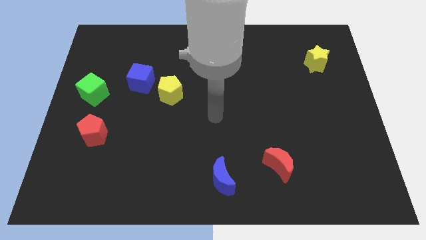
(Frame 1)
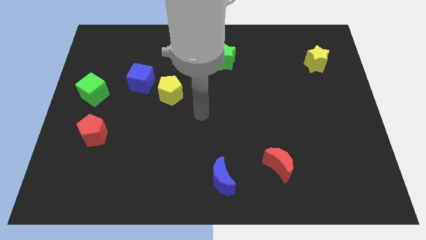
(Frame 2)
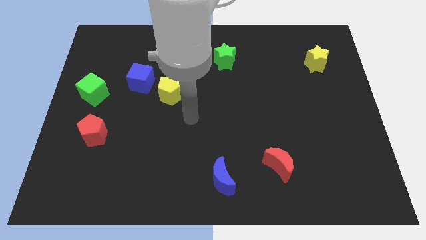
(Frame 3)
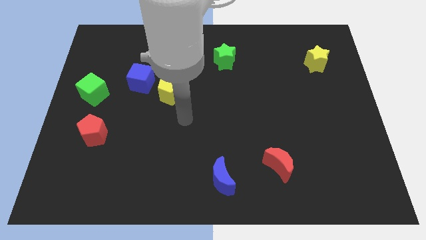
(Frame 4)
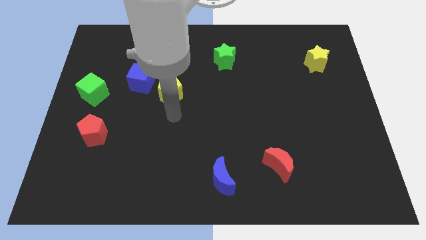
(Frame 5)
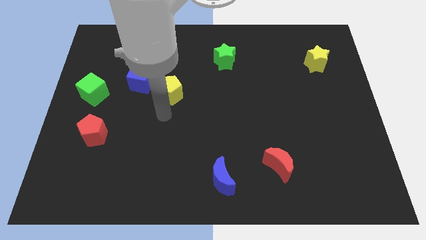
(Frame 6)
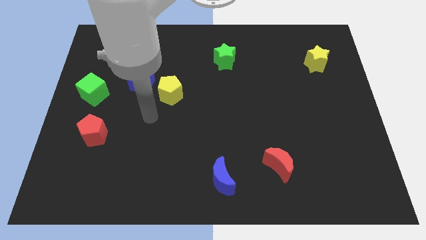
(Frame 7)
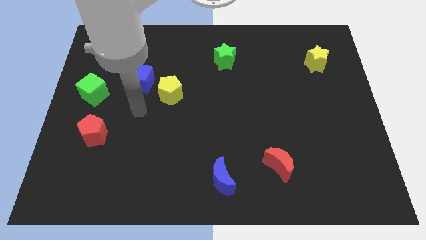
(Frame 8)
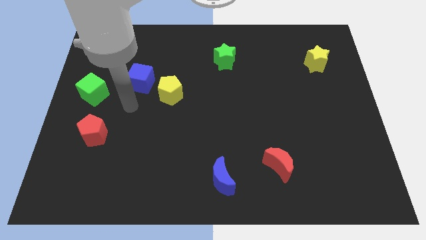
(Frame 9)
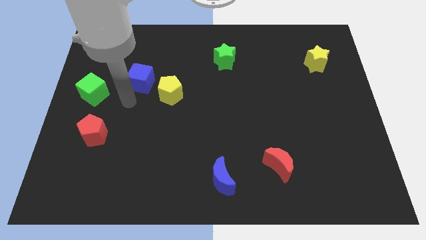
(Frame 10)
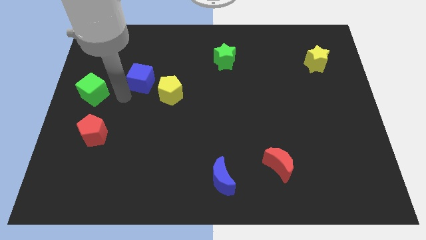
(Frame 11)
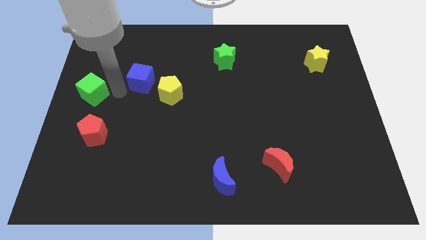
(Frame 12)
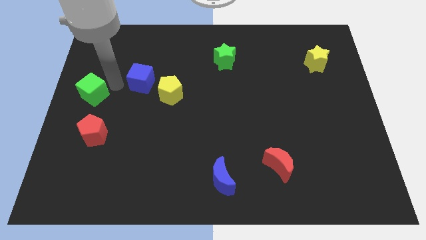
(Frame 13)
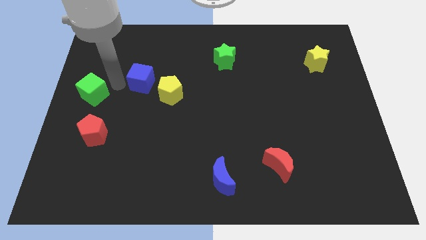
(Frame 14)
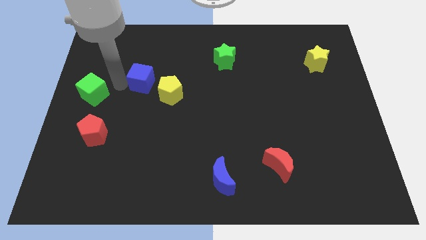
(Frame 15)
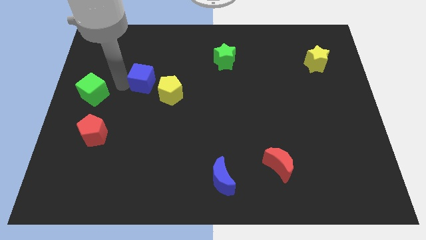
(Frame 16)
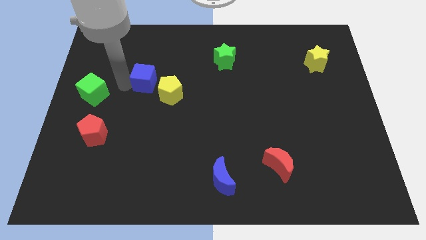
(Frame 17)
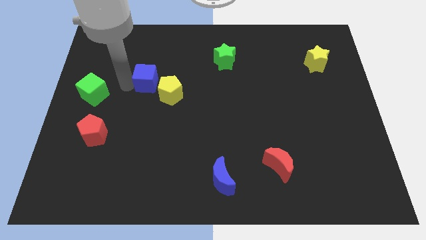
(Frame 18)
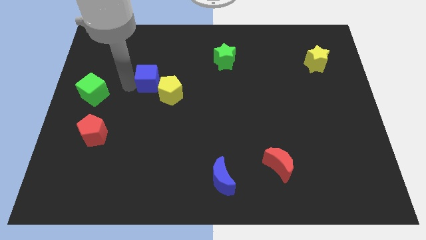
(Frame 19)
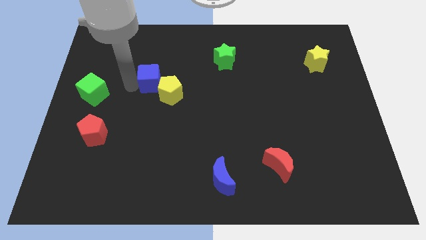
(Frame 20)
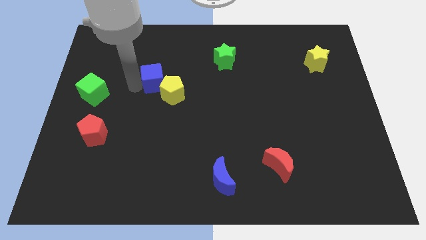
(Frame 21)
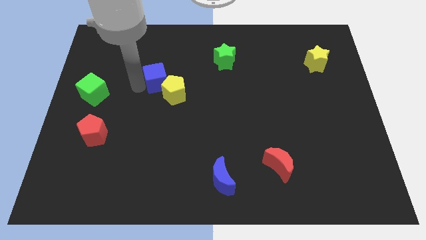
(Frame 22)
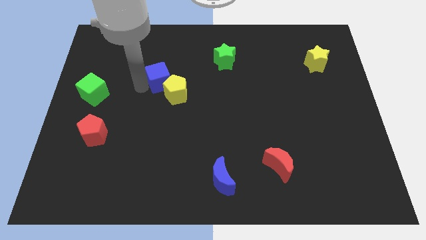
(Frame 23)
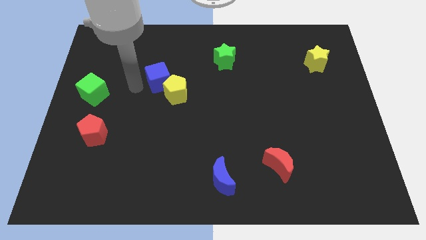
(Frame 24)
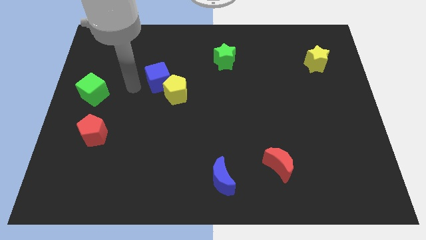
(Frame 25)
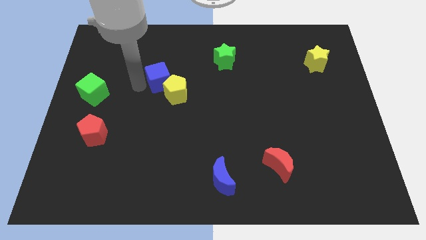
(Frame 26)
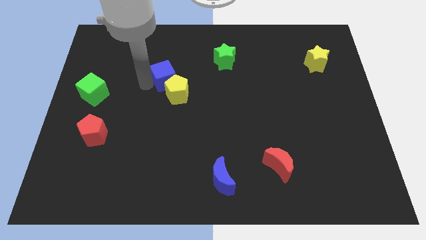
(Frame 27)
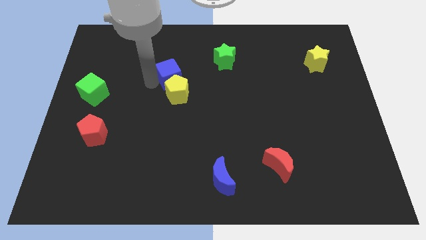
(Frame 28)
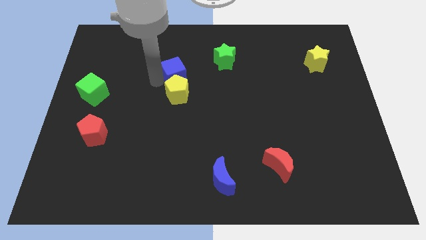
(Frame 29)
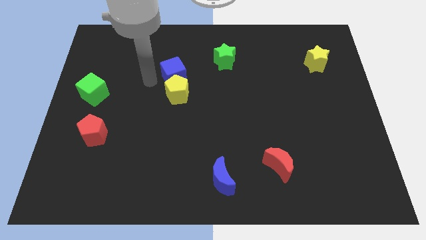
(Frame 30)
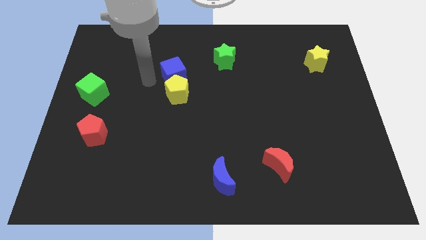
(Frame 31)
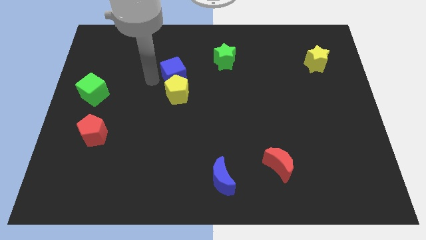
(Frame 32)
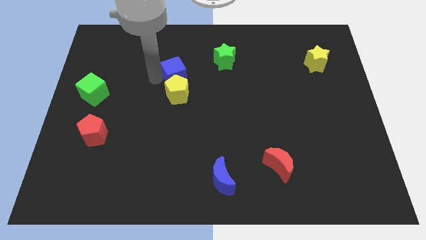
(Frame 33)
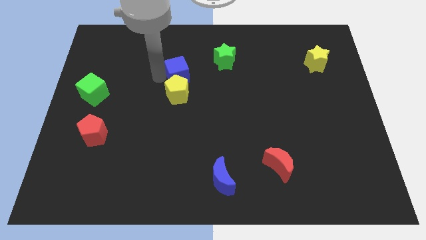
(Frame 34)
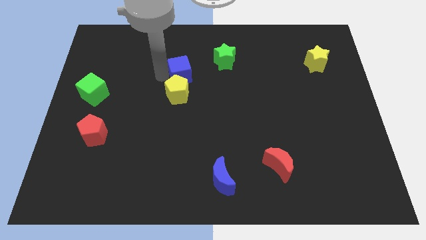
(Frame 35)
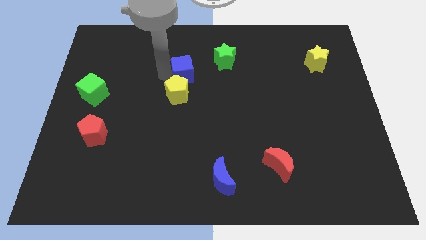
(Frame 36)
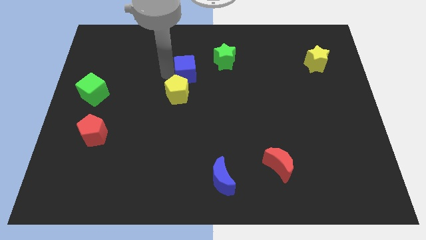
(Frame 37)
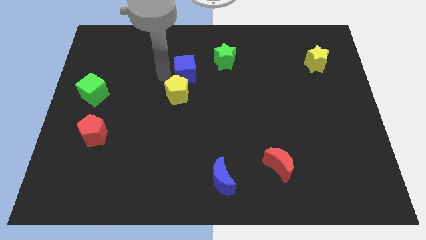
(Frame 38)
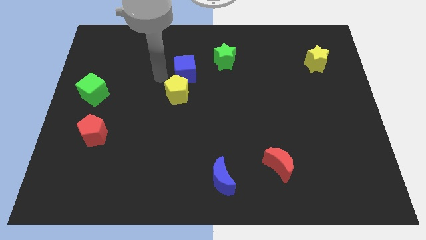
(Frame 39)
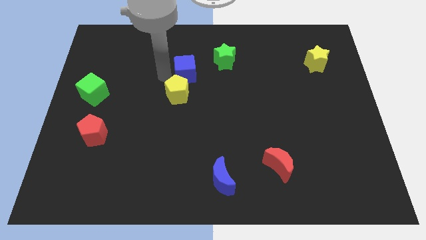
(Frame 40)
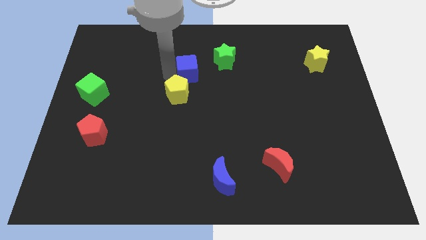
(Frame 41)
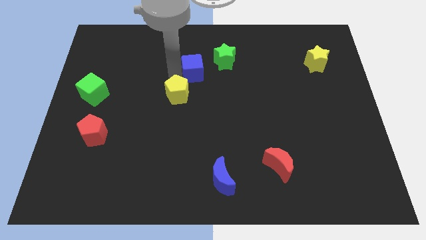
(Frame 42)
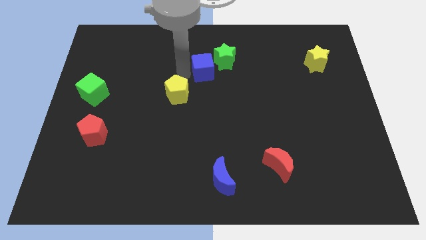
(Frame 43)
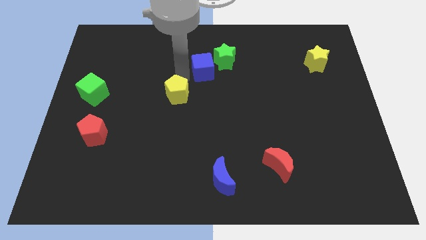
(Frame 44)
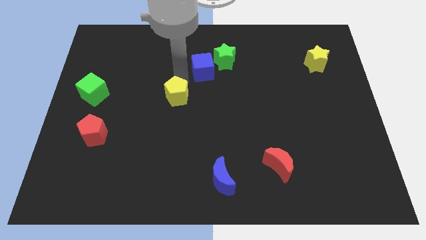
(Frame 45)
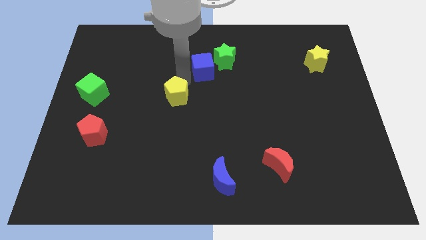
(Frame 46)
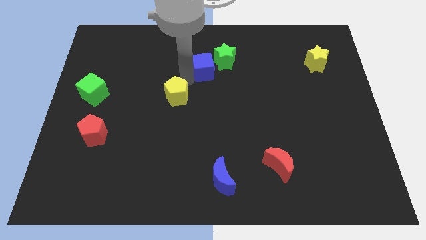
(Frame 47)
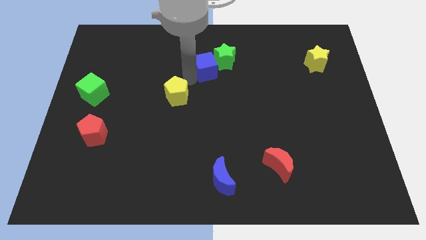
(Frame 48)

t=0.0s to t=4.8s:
push the blue cube next to the green star

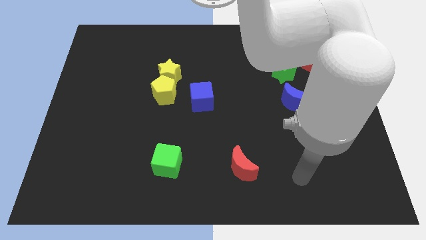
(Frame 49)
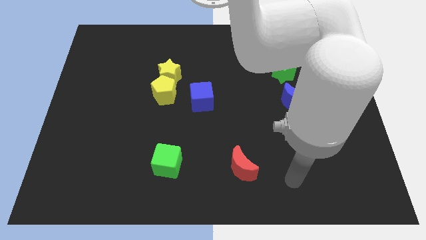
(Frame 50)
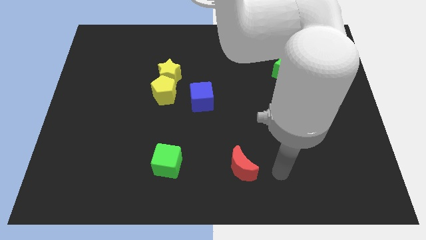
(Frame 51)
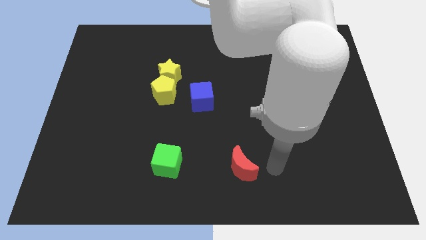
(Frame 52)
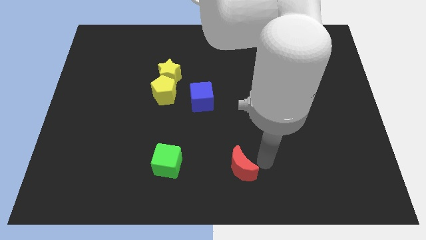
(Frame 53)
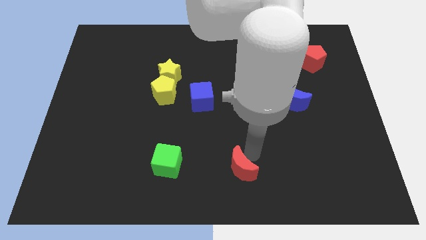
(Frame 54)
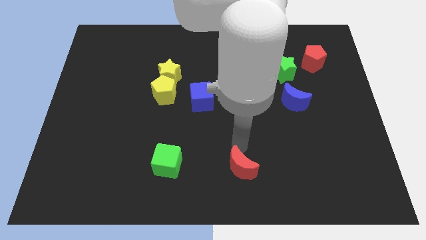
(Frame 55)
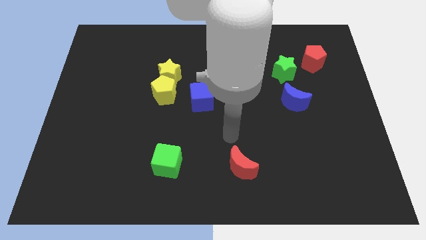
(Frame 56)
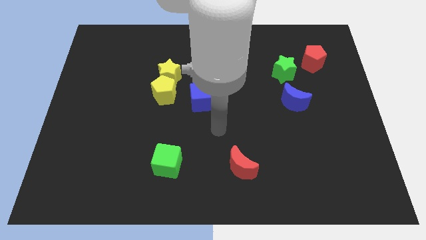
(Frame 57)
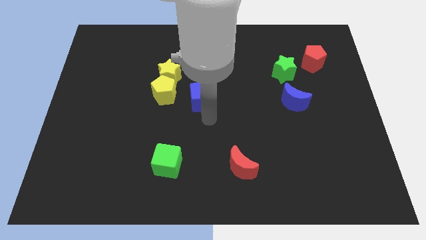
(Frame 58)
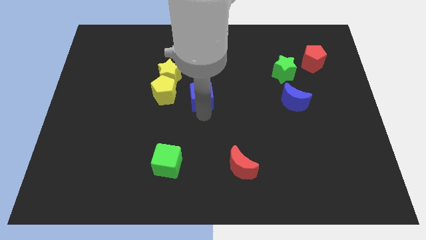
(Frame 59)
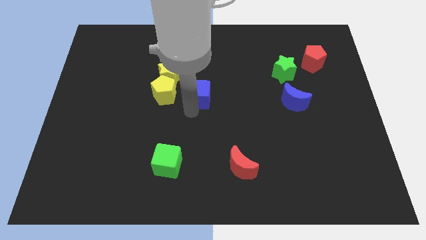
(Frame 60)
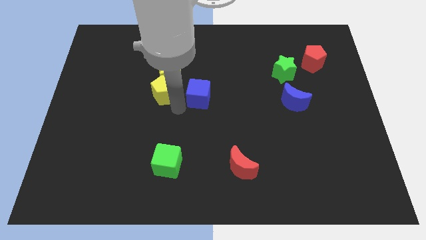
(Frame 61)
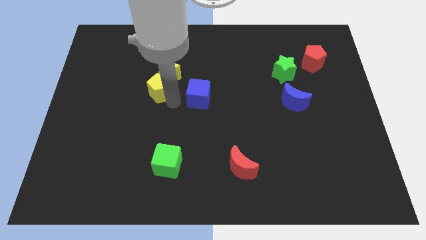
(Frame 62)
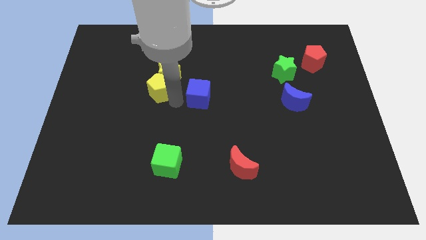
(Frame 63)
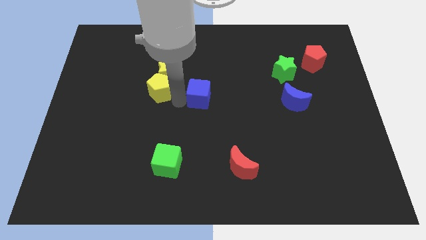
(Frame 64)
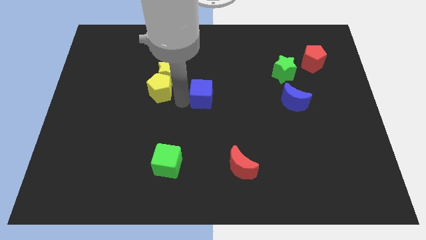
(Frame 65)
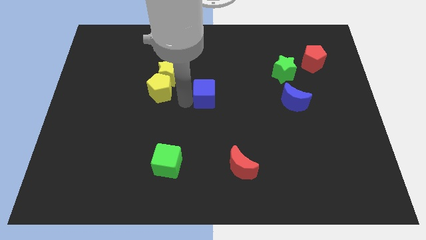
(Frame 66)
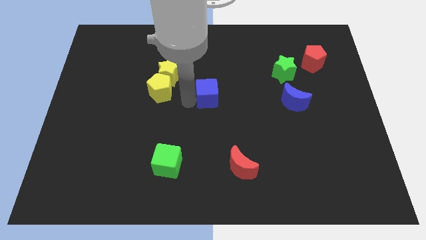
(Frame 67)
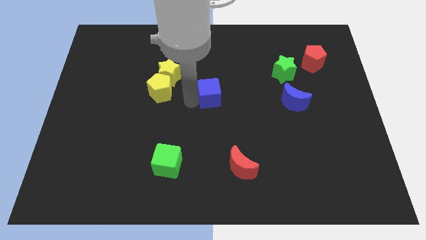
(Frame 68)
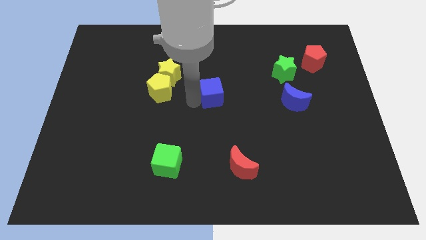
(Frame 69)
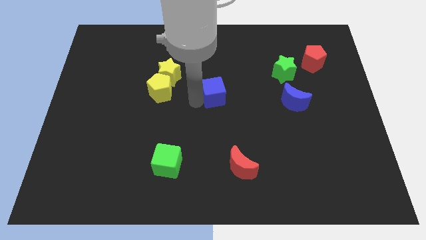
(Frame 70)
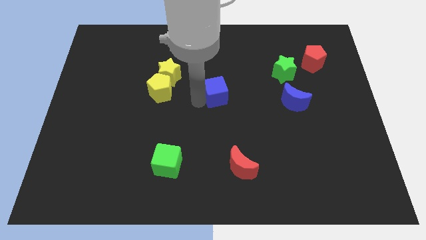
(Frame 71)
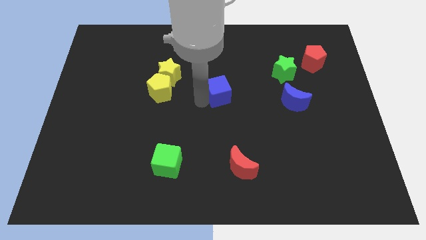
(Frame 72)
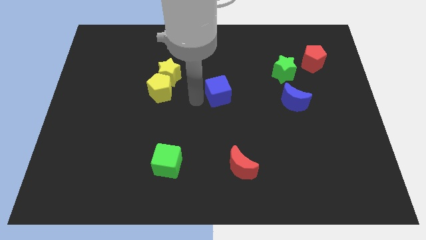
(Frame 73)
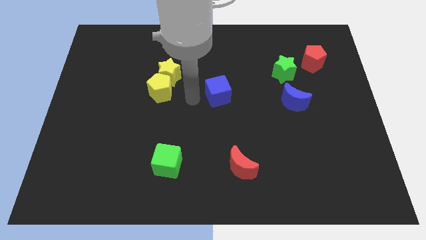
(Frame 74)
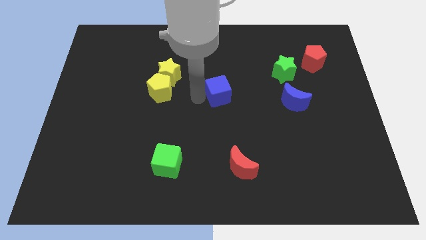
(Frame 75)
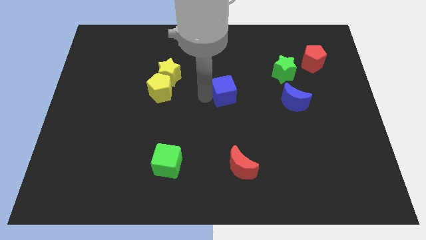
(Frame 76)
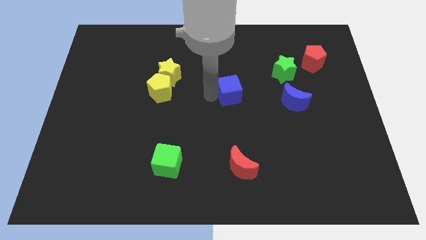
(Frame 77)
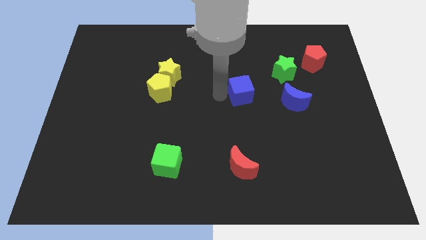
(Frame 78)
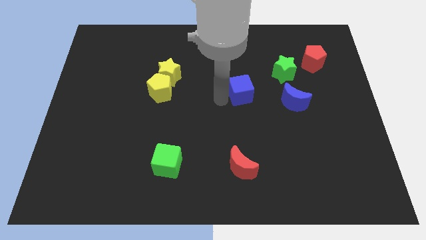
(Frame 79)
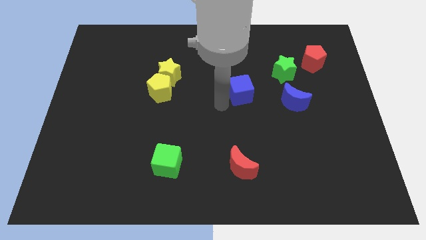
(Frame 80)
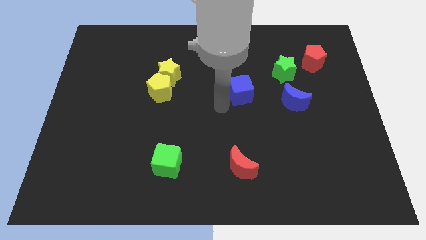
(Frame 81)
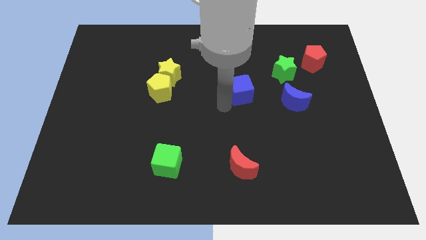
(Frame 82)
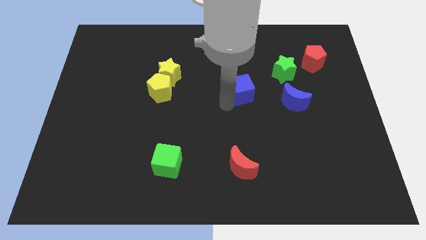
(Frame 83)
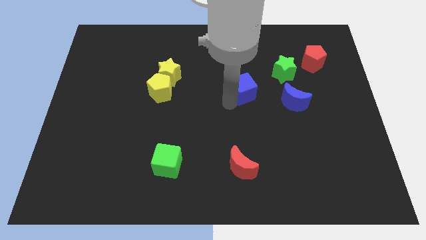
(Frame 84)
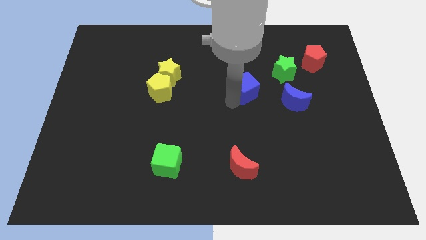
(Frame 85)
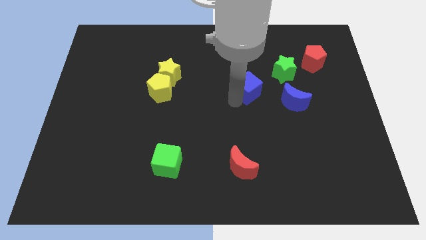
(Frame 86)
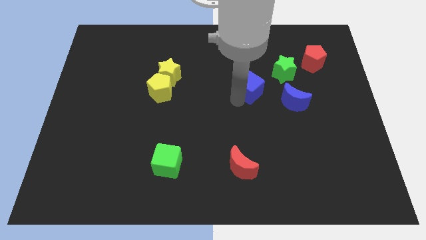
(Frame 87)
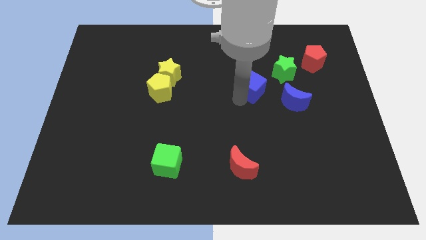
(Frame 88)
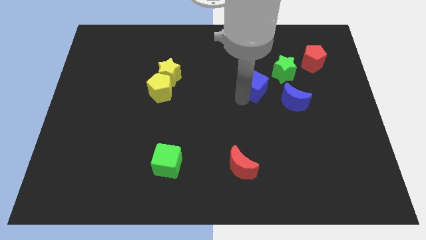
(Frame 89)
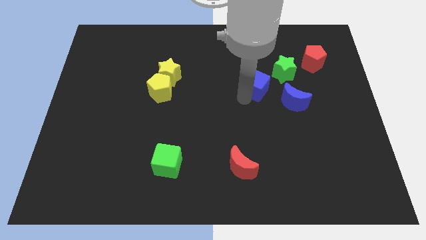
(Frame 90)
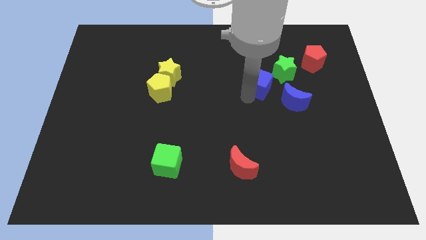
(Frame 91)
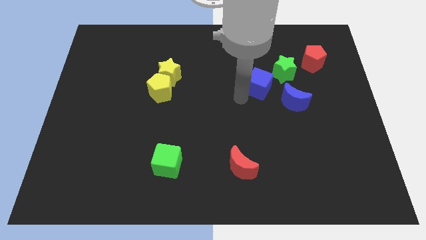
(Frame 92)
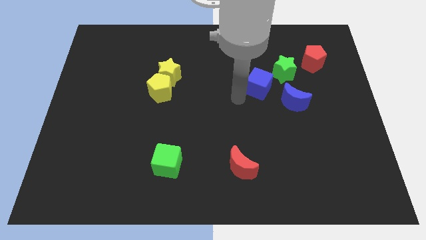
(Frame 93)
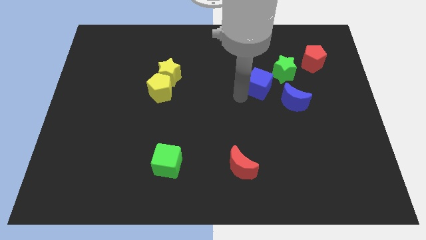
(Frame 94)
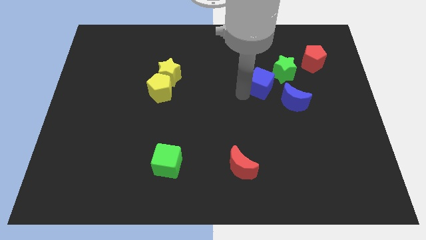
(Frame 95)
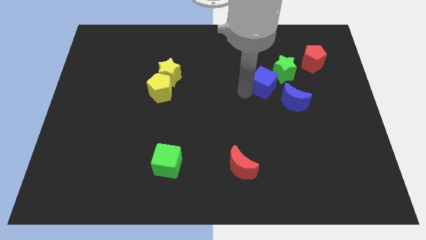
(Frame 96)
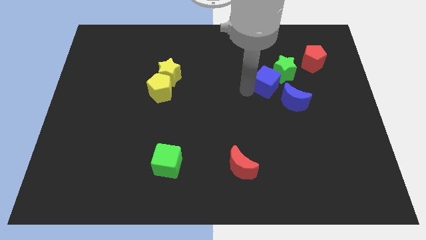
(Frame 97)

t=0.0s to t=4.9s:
slide the blue cube close to the green star
